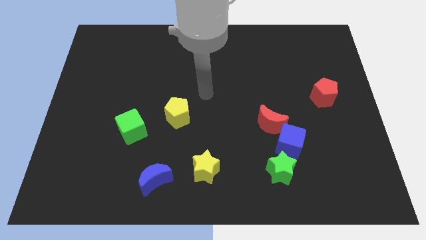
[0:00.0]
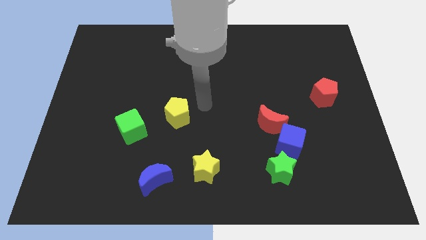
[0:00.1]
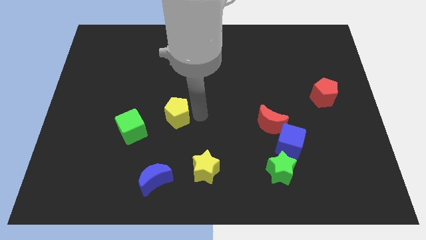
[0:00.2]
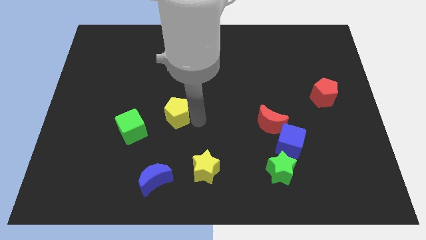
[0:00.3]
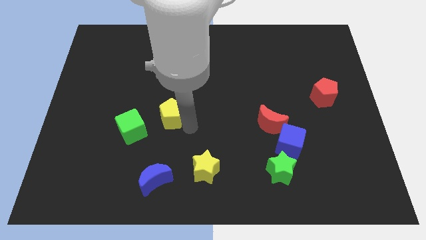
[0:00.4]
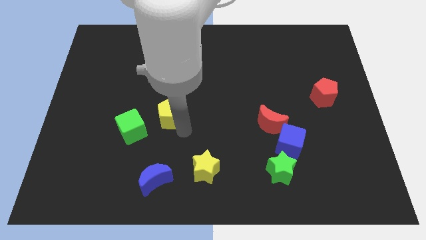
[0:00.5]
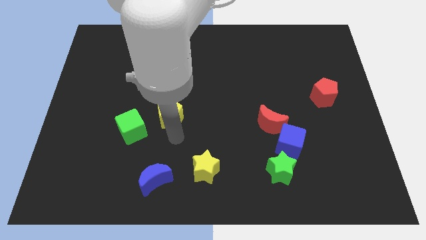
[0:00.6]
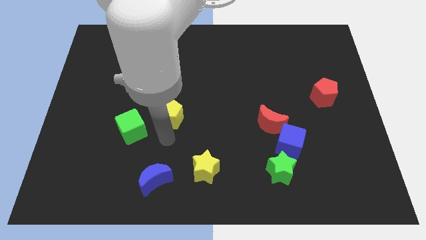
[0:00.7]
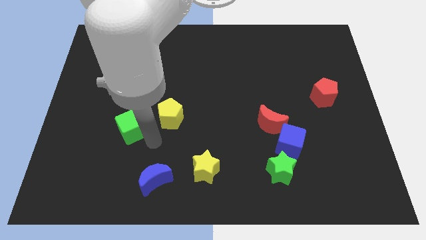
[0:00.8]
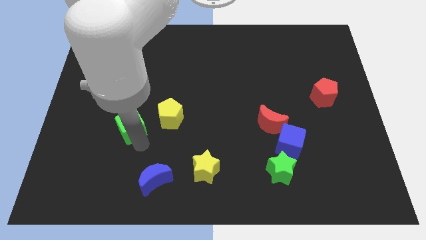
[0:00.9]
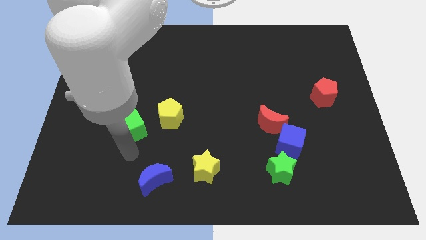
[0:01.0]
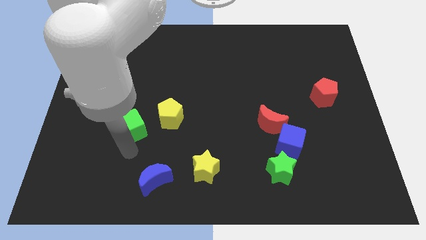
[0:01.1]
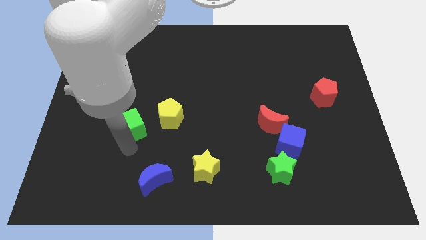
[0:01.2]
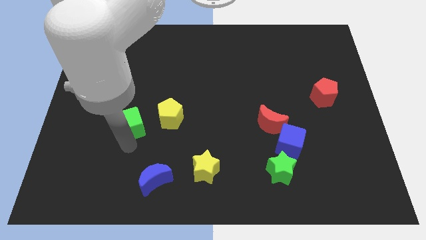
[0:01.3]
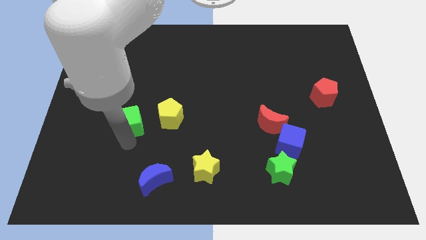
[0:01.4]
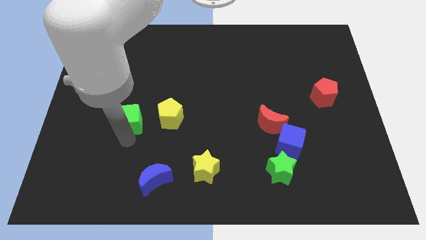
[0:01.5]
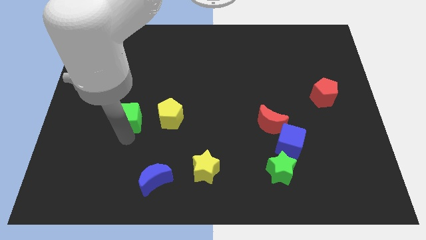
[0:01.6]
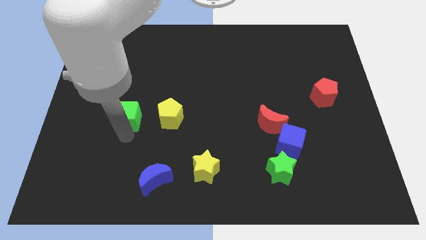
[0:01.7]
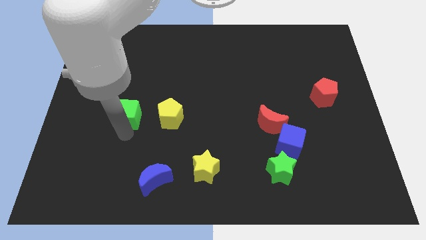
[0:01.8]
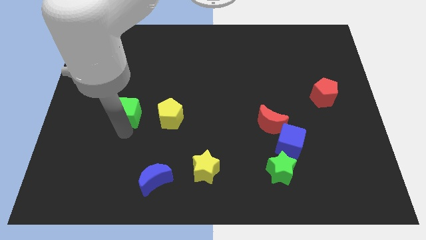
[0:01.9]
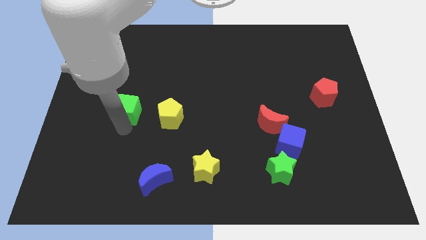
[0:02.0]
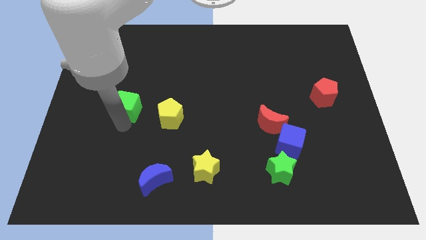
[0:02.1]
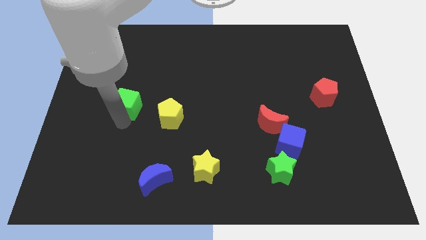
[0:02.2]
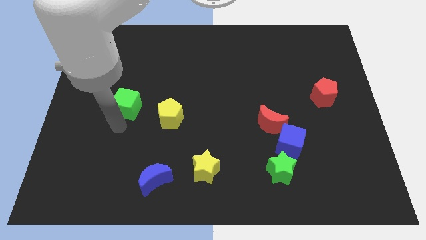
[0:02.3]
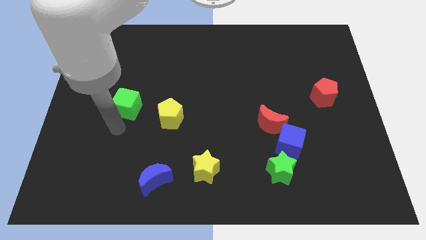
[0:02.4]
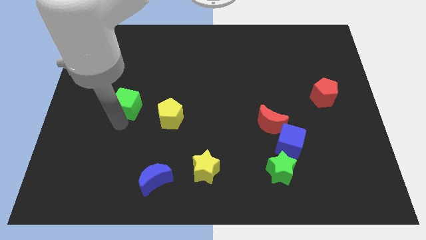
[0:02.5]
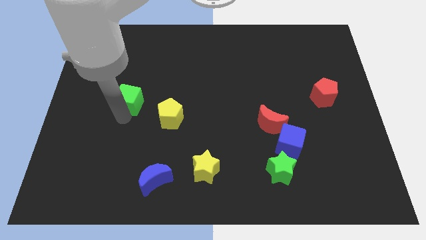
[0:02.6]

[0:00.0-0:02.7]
slightly move the green cube upwards

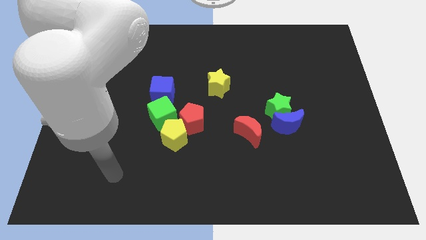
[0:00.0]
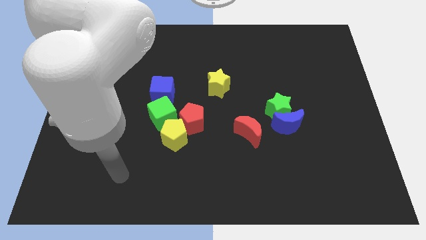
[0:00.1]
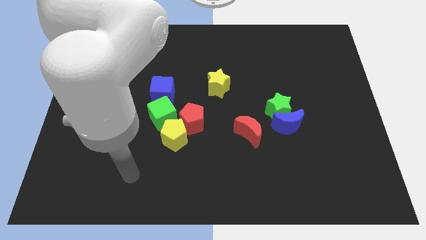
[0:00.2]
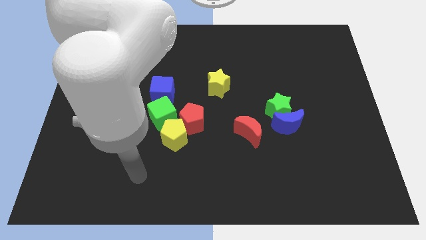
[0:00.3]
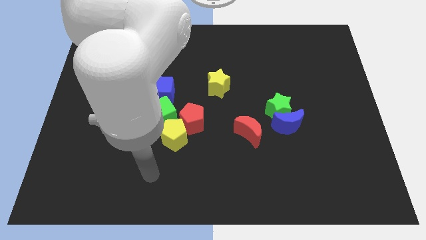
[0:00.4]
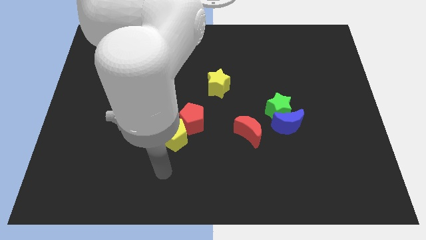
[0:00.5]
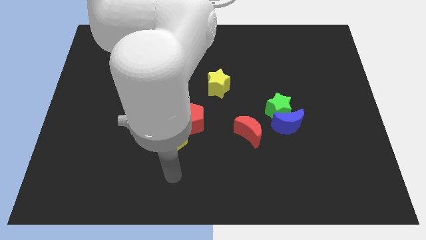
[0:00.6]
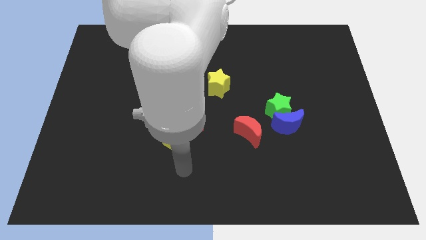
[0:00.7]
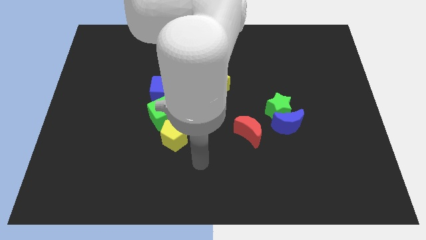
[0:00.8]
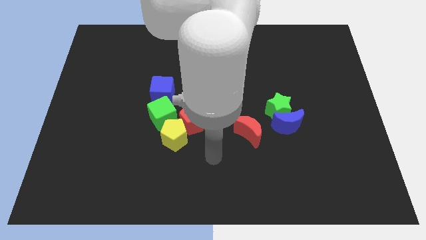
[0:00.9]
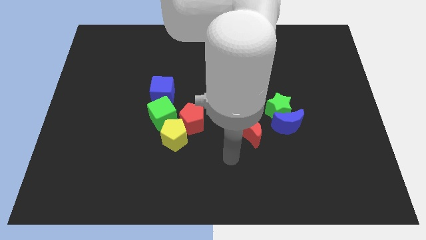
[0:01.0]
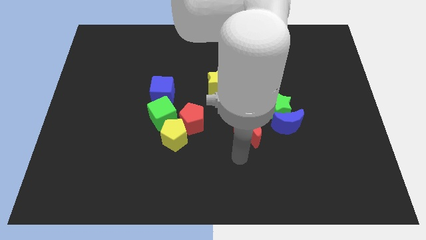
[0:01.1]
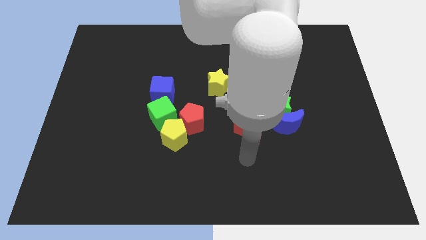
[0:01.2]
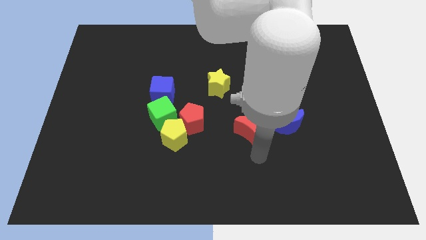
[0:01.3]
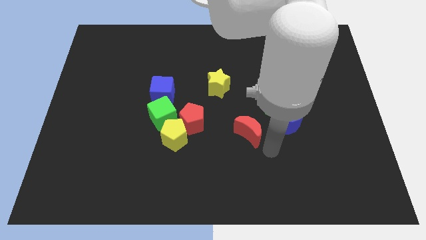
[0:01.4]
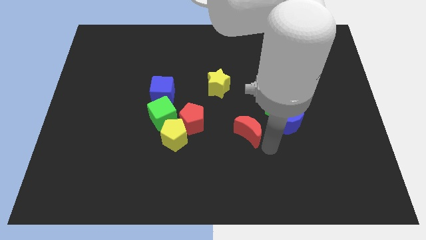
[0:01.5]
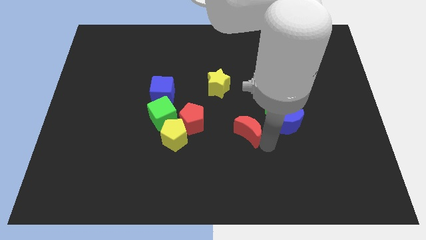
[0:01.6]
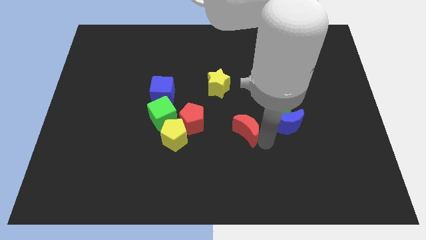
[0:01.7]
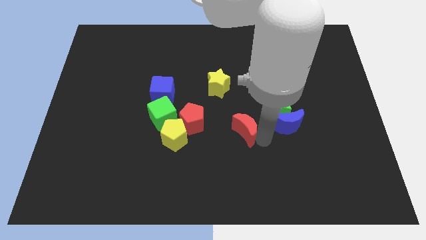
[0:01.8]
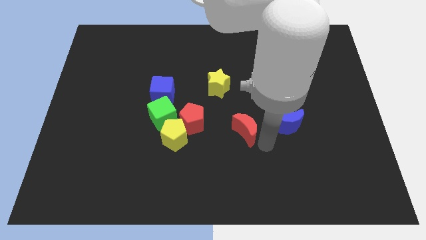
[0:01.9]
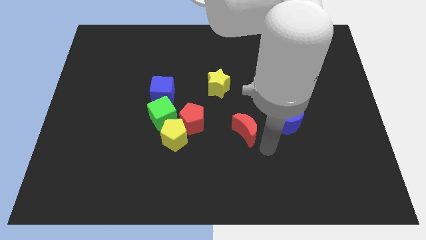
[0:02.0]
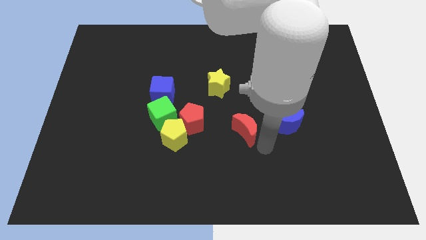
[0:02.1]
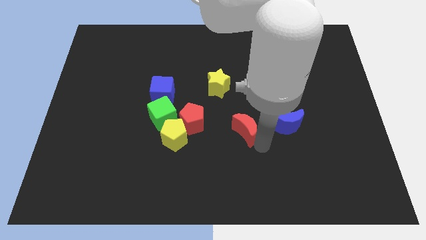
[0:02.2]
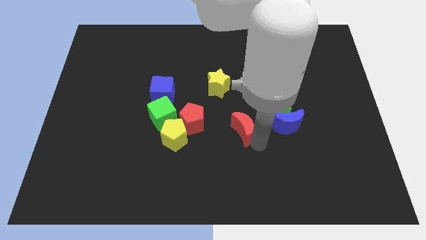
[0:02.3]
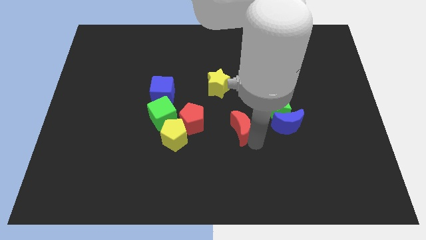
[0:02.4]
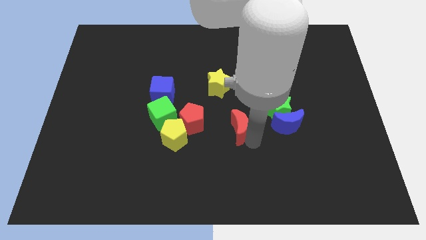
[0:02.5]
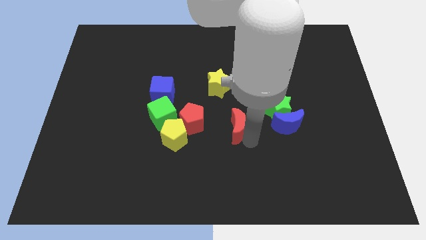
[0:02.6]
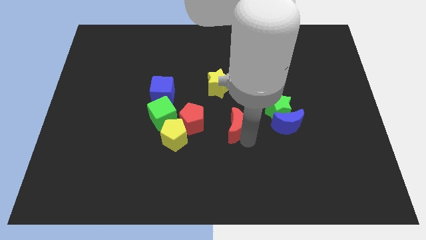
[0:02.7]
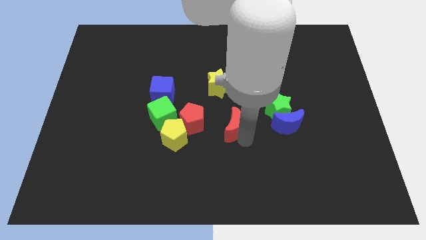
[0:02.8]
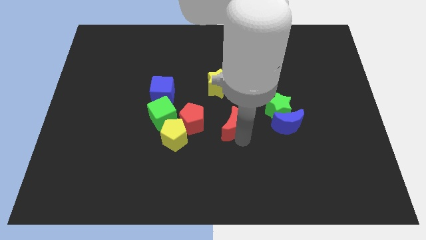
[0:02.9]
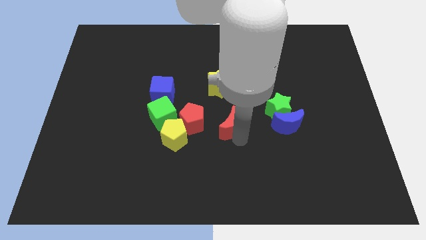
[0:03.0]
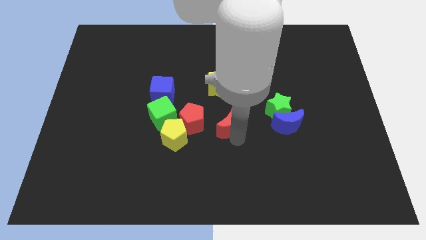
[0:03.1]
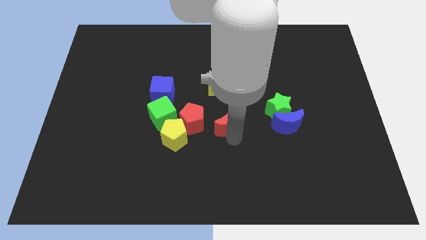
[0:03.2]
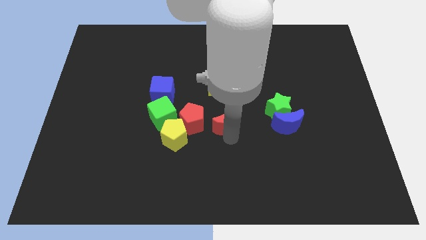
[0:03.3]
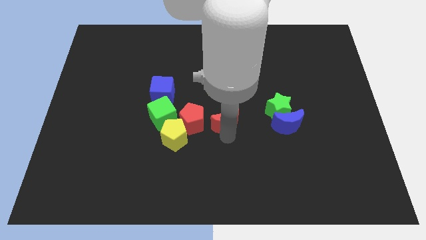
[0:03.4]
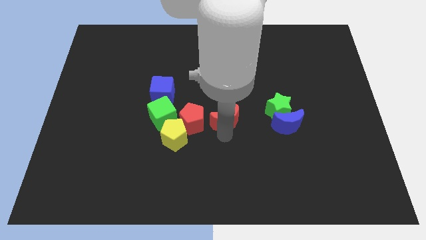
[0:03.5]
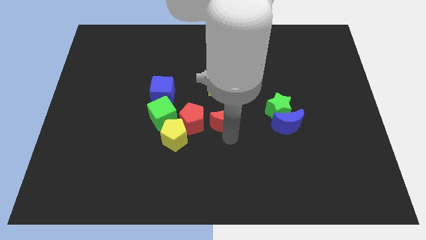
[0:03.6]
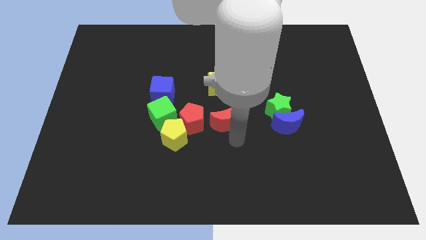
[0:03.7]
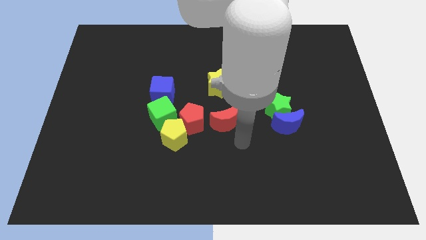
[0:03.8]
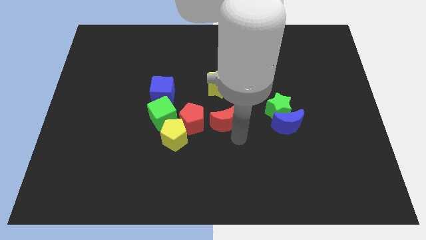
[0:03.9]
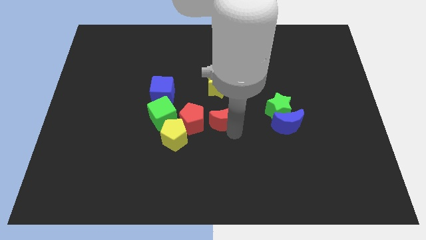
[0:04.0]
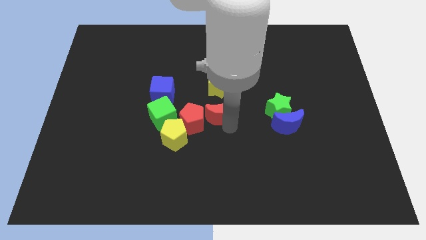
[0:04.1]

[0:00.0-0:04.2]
slide the red moon a bit up and then left

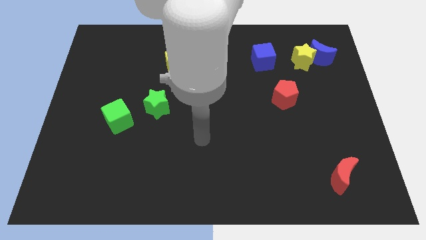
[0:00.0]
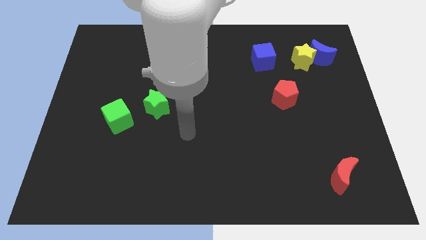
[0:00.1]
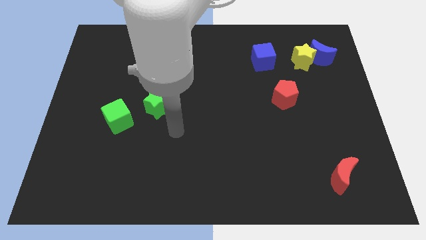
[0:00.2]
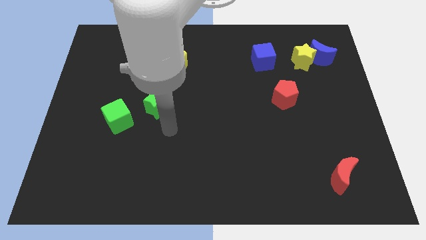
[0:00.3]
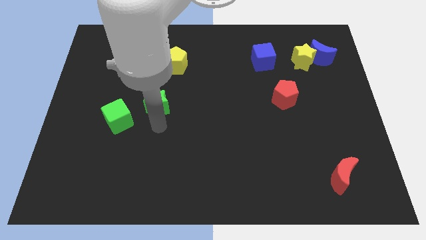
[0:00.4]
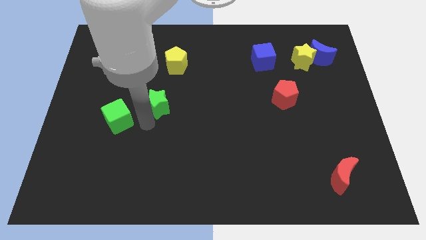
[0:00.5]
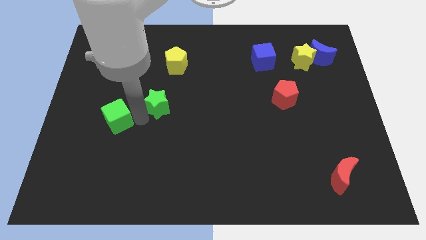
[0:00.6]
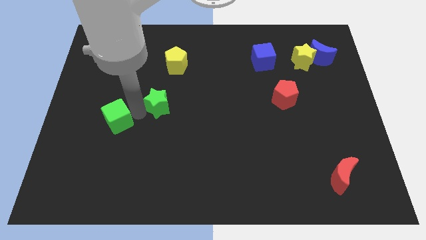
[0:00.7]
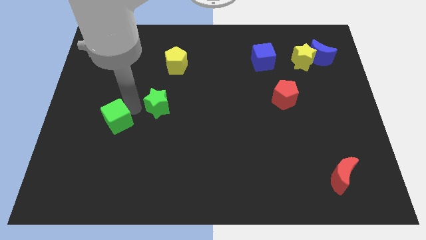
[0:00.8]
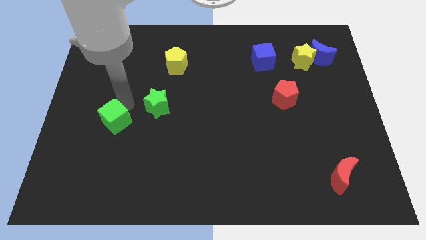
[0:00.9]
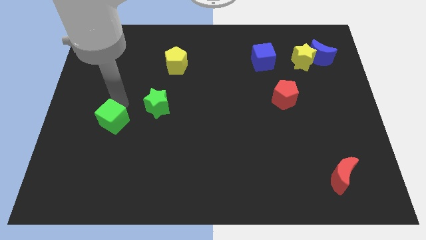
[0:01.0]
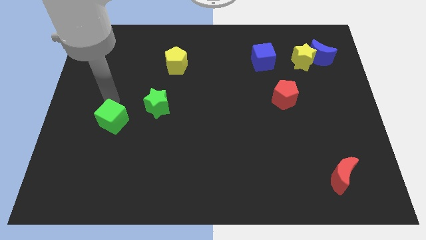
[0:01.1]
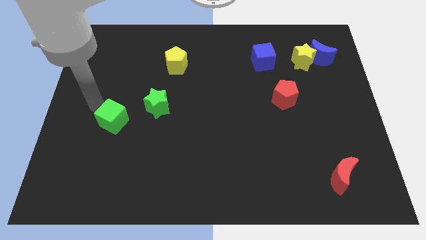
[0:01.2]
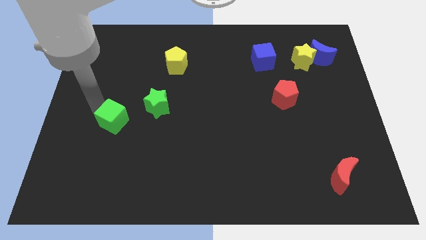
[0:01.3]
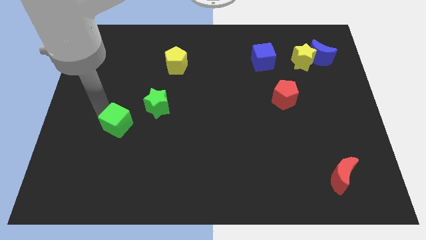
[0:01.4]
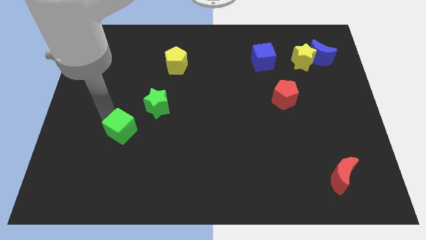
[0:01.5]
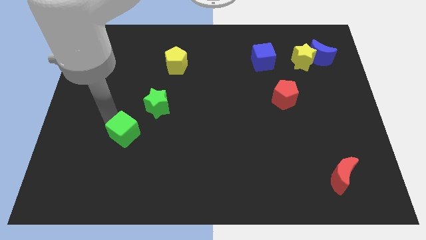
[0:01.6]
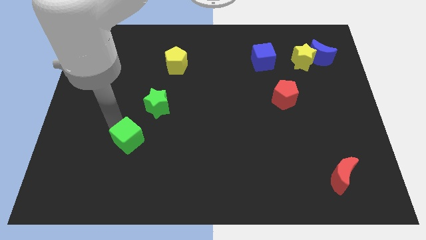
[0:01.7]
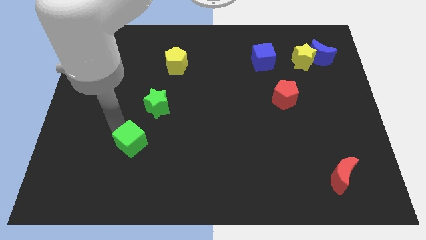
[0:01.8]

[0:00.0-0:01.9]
push the green cube down and then right somewhat
